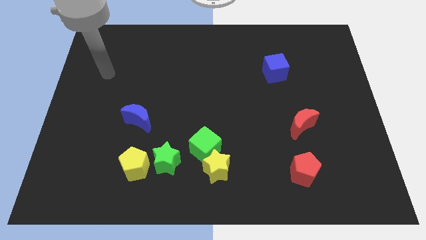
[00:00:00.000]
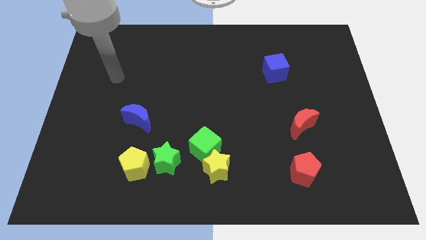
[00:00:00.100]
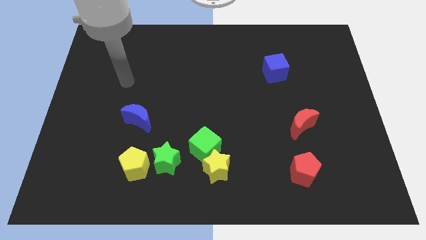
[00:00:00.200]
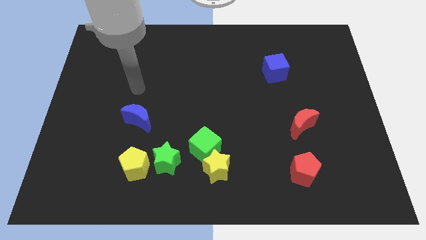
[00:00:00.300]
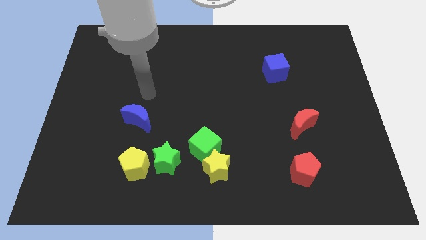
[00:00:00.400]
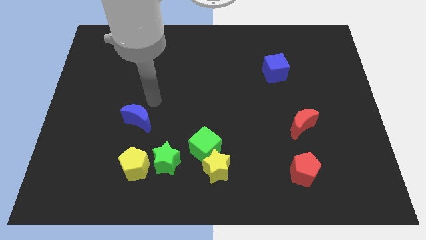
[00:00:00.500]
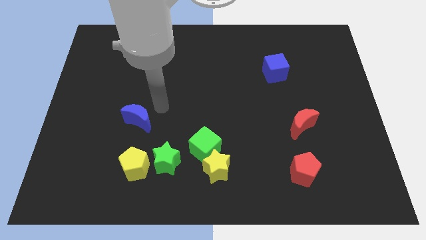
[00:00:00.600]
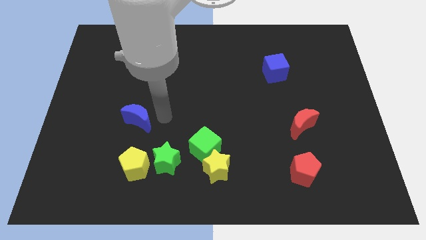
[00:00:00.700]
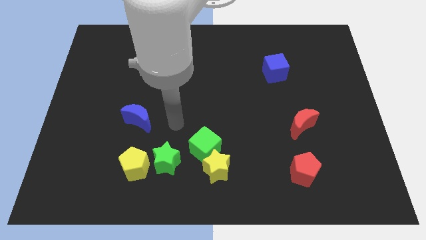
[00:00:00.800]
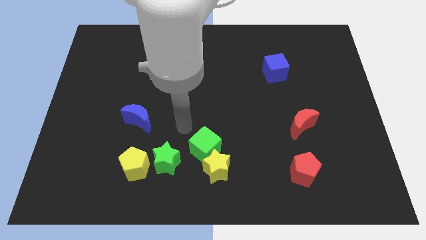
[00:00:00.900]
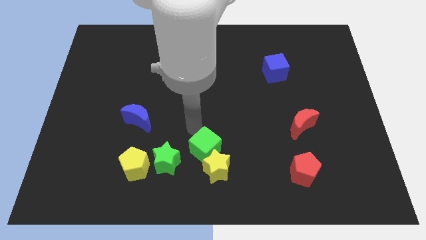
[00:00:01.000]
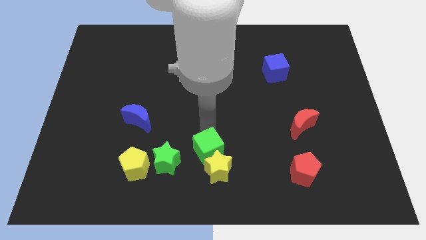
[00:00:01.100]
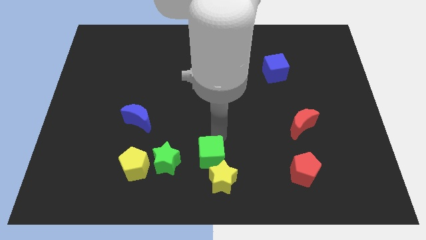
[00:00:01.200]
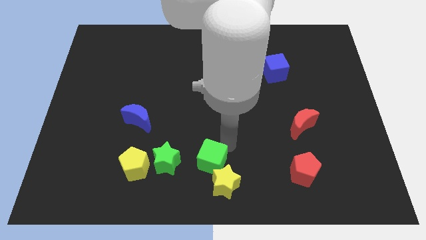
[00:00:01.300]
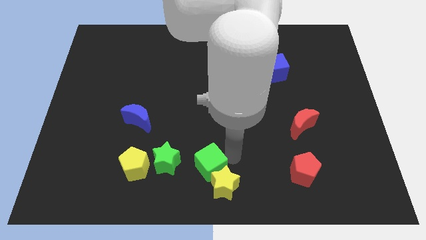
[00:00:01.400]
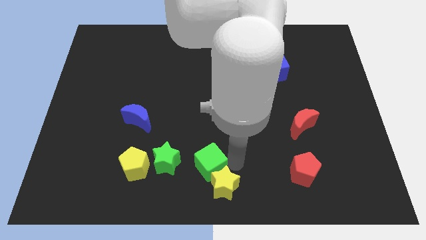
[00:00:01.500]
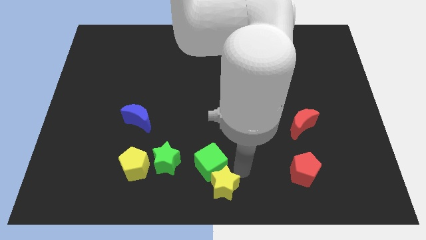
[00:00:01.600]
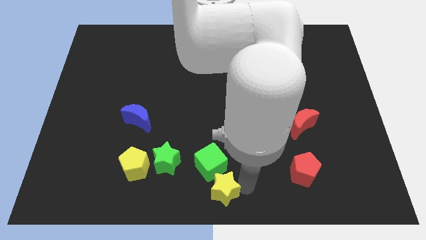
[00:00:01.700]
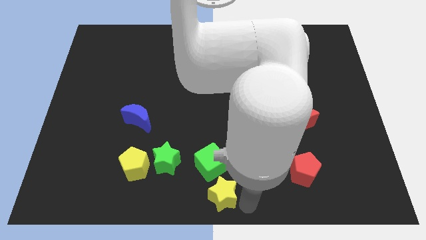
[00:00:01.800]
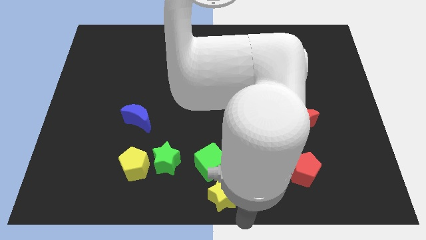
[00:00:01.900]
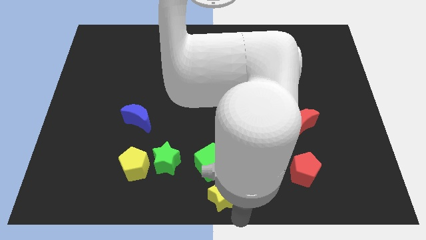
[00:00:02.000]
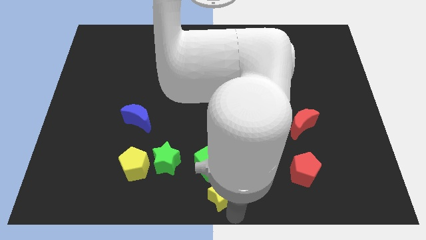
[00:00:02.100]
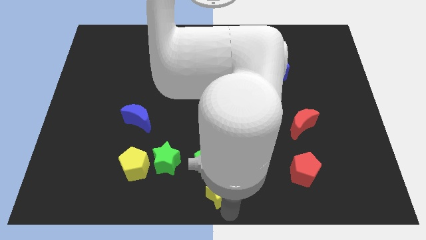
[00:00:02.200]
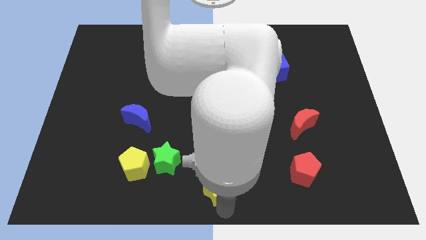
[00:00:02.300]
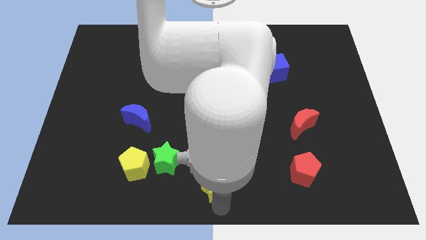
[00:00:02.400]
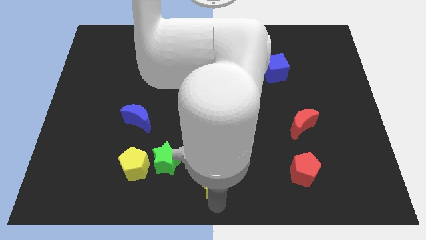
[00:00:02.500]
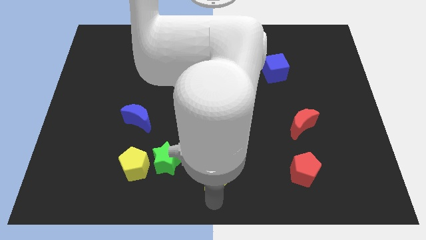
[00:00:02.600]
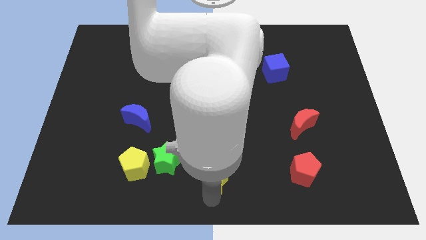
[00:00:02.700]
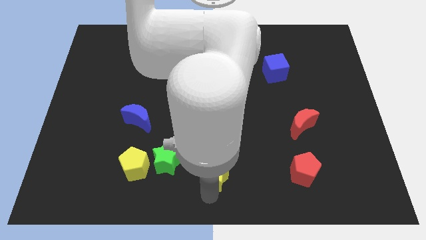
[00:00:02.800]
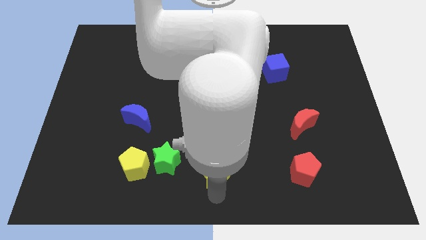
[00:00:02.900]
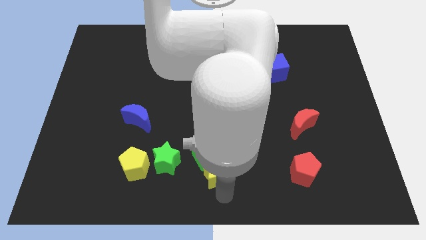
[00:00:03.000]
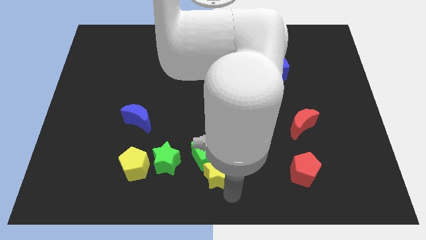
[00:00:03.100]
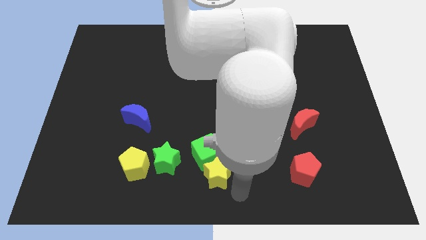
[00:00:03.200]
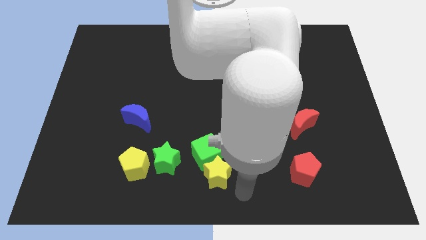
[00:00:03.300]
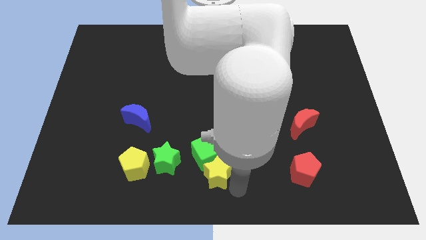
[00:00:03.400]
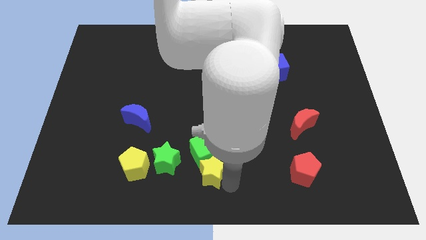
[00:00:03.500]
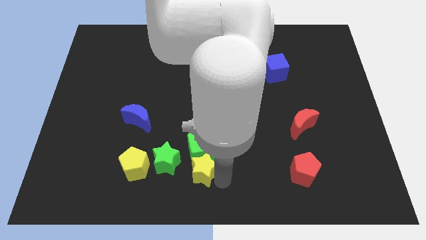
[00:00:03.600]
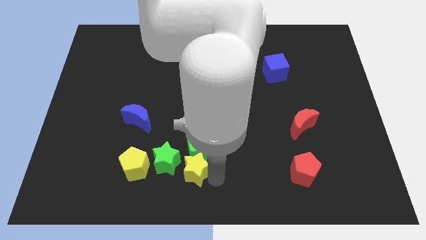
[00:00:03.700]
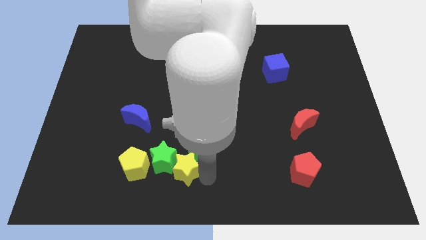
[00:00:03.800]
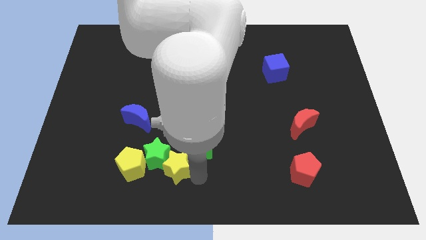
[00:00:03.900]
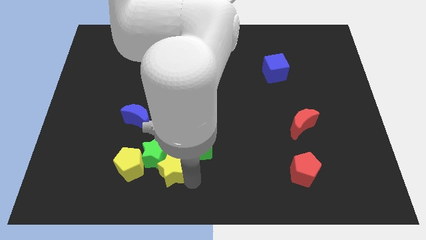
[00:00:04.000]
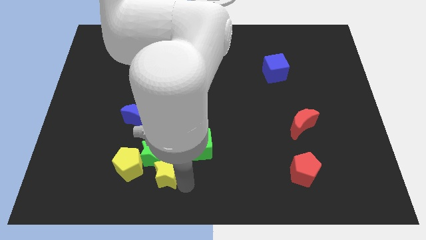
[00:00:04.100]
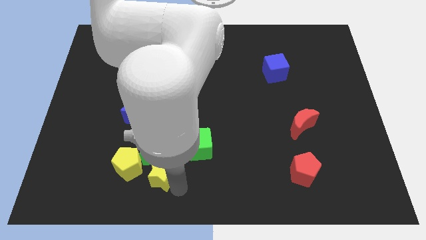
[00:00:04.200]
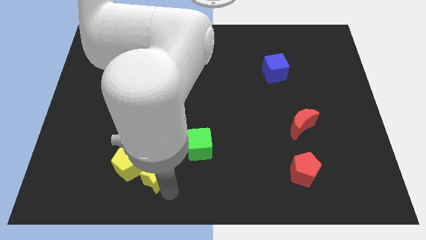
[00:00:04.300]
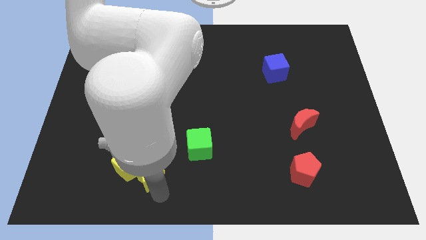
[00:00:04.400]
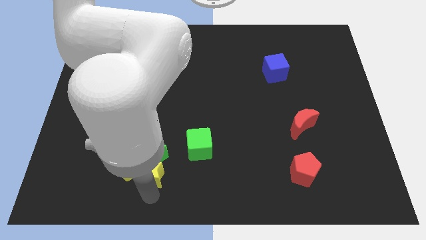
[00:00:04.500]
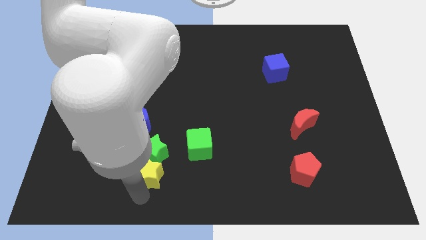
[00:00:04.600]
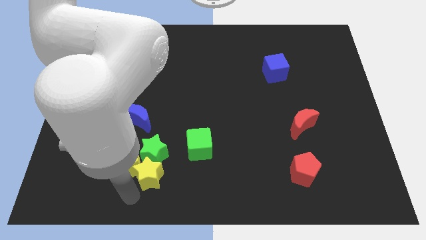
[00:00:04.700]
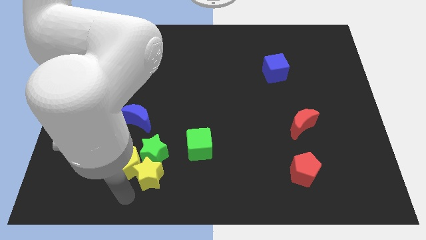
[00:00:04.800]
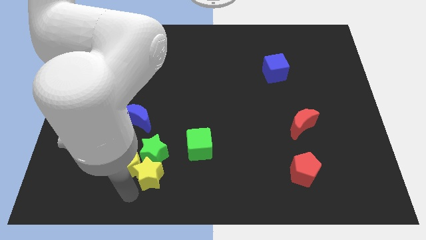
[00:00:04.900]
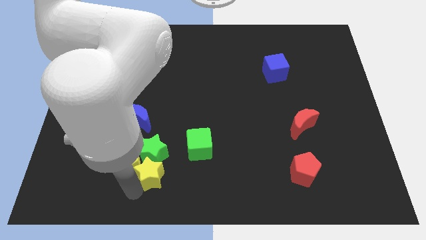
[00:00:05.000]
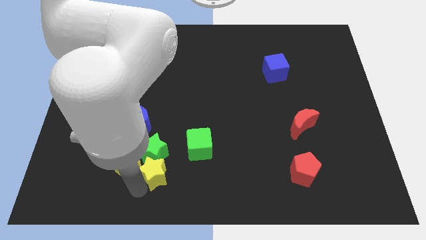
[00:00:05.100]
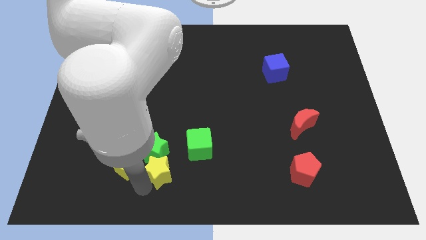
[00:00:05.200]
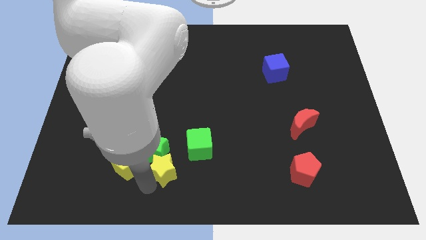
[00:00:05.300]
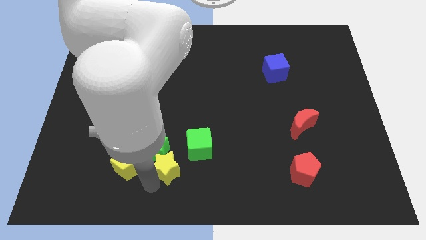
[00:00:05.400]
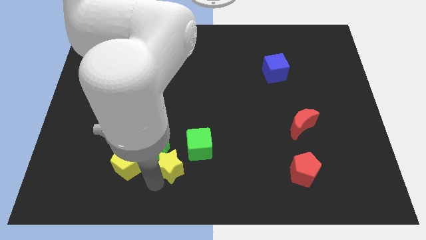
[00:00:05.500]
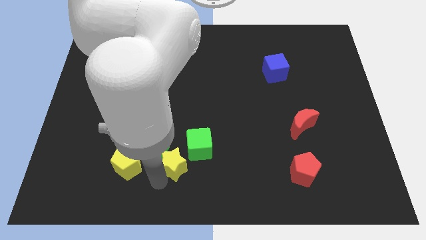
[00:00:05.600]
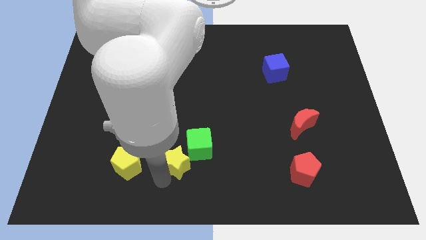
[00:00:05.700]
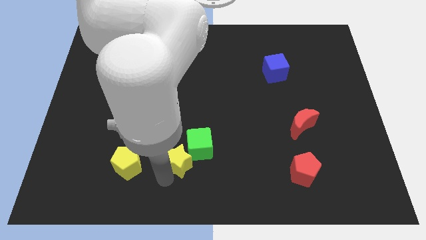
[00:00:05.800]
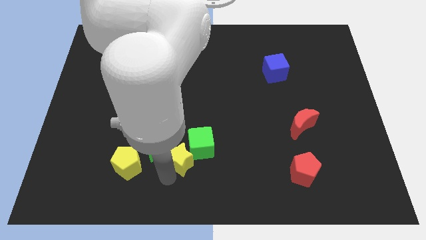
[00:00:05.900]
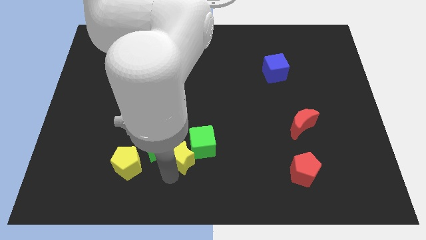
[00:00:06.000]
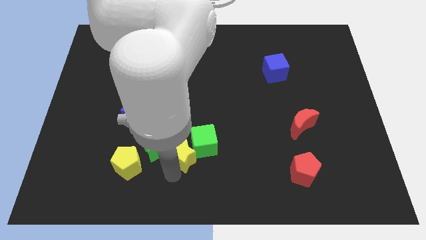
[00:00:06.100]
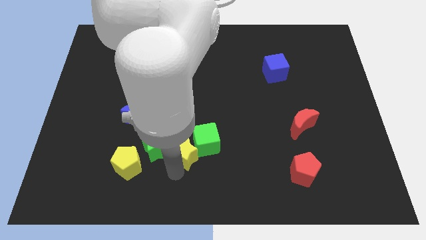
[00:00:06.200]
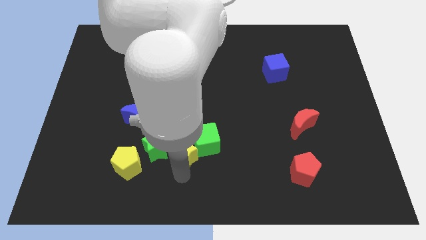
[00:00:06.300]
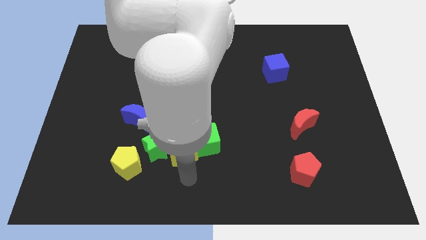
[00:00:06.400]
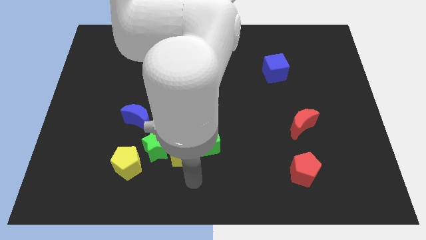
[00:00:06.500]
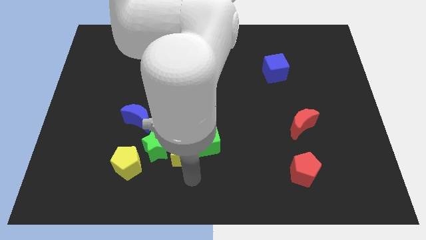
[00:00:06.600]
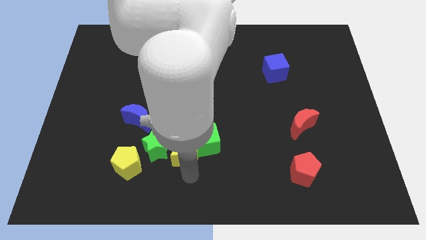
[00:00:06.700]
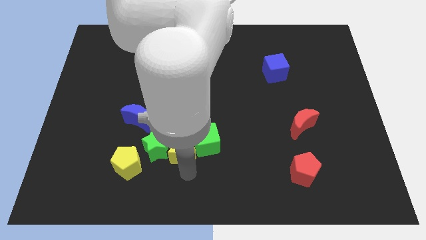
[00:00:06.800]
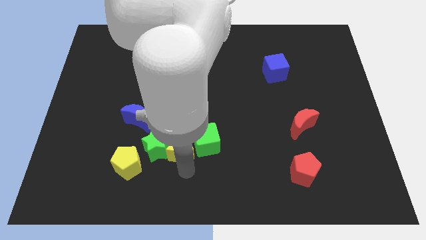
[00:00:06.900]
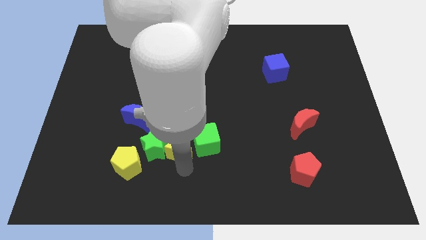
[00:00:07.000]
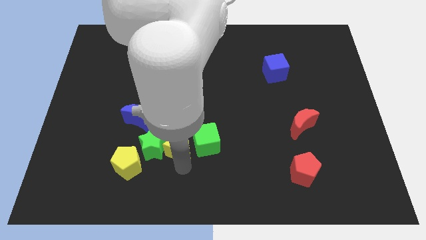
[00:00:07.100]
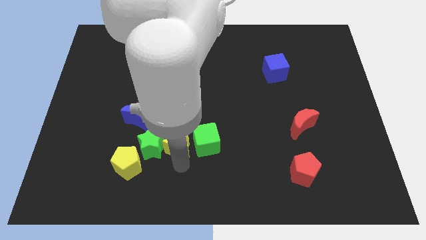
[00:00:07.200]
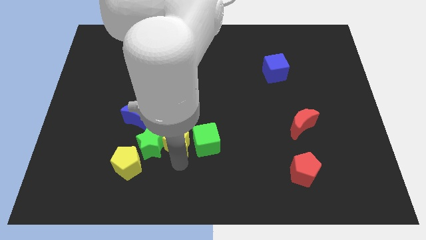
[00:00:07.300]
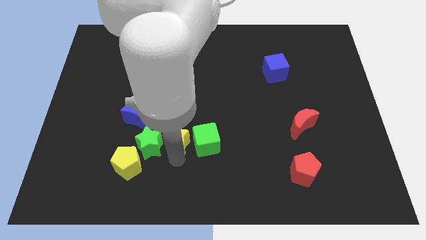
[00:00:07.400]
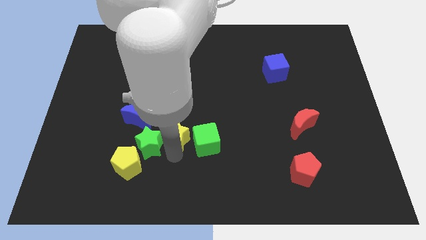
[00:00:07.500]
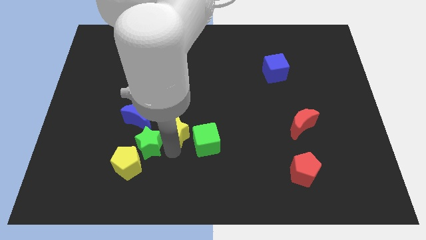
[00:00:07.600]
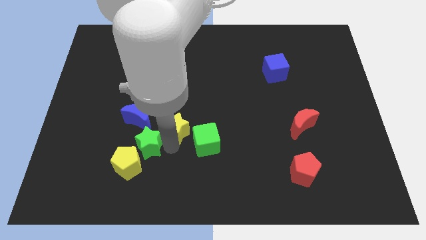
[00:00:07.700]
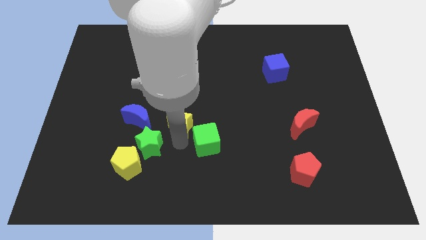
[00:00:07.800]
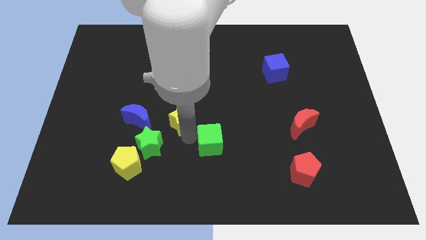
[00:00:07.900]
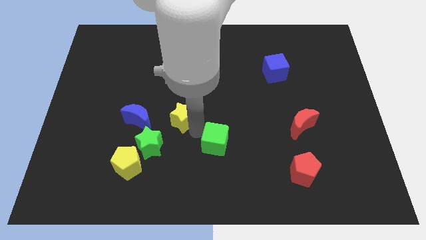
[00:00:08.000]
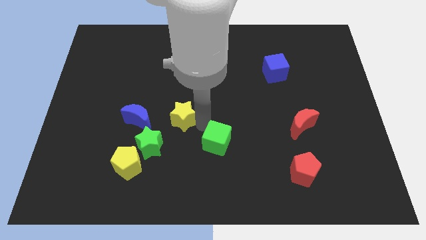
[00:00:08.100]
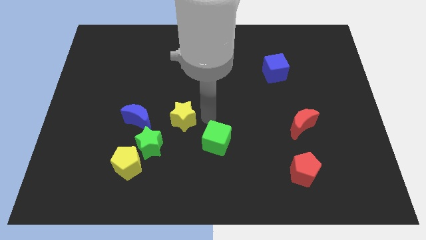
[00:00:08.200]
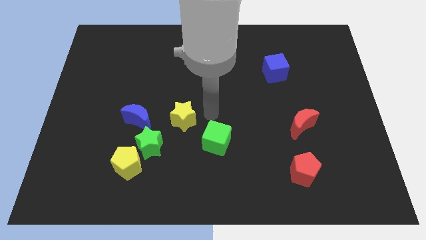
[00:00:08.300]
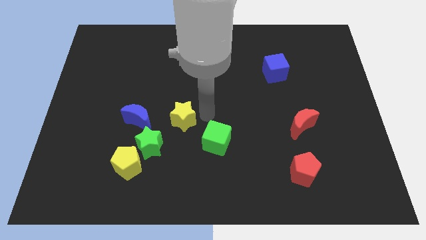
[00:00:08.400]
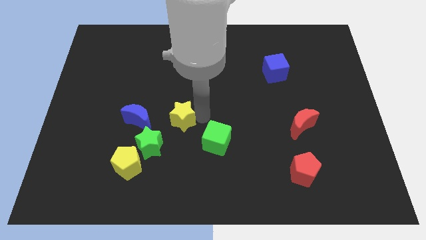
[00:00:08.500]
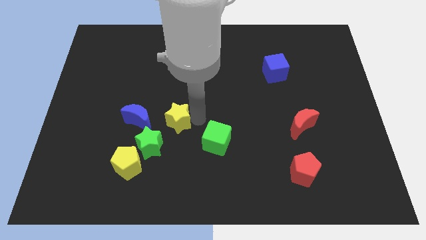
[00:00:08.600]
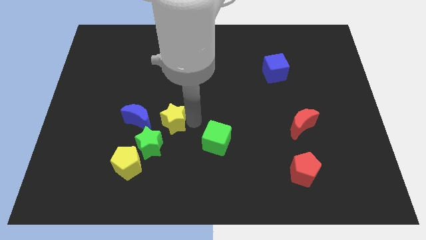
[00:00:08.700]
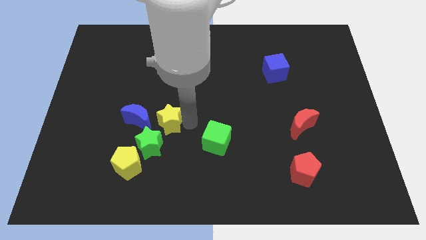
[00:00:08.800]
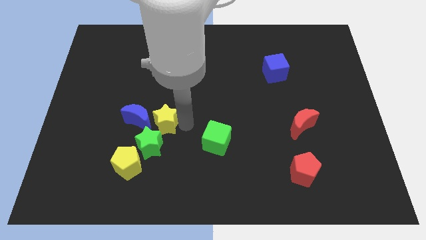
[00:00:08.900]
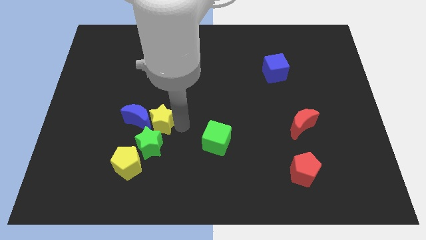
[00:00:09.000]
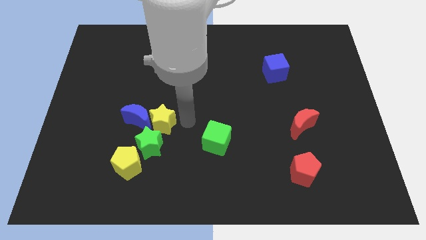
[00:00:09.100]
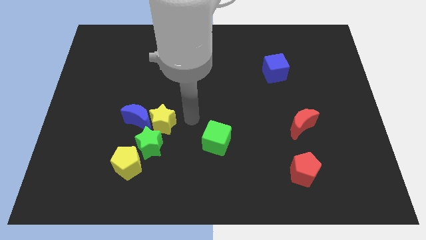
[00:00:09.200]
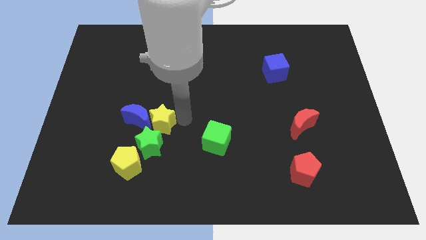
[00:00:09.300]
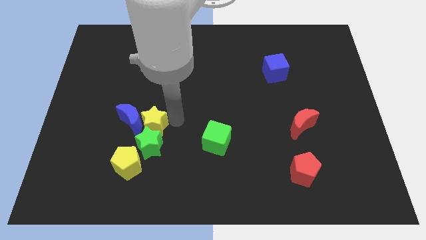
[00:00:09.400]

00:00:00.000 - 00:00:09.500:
slide the yellow star to the top left side of the green star
